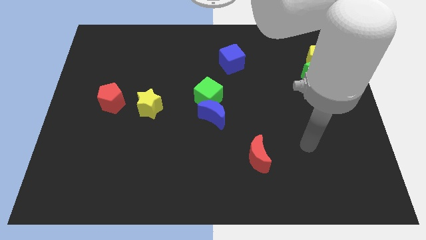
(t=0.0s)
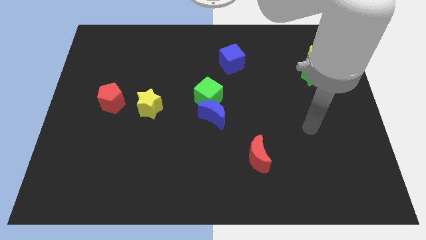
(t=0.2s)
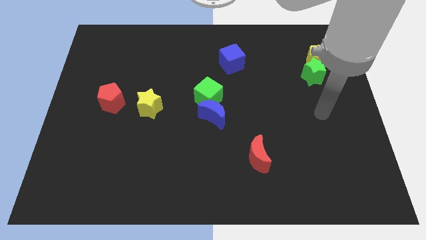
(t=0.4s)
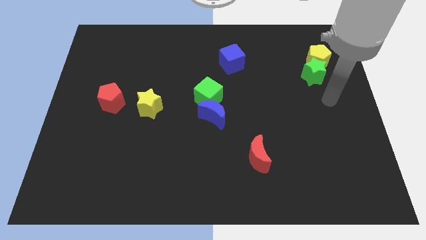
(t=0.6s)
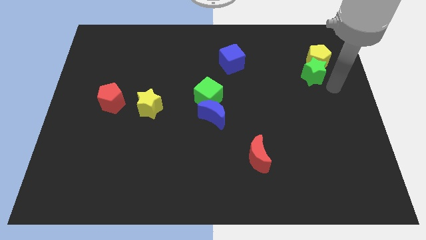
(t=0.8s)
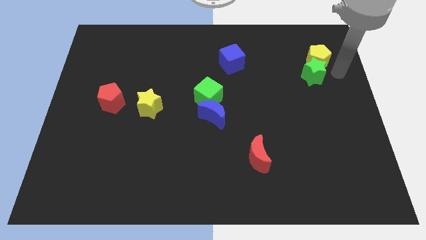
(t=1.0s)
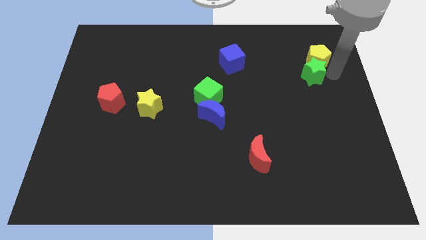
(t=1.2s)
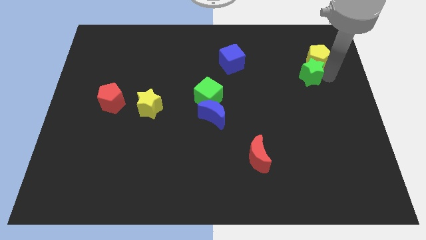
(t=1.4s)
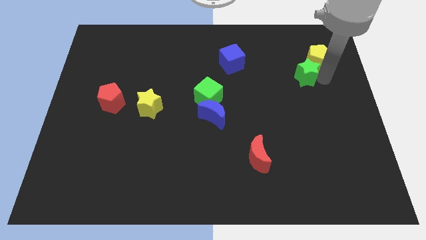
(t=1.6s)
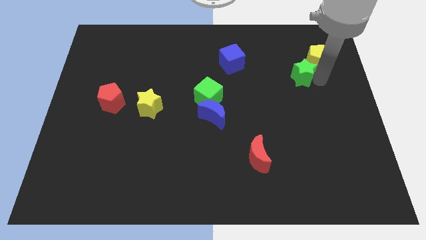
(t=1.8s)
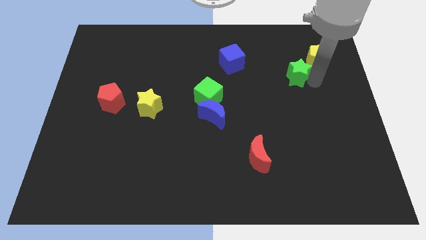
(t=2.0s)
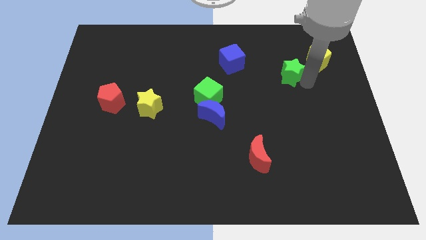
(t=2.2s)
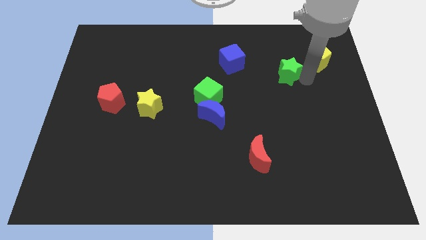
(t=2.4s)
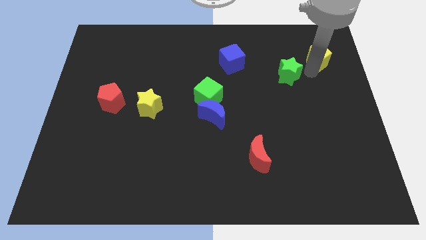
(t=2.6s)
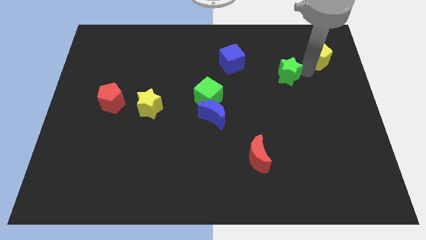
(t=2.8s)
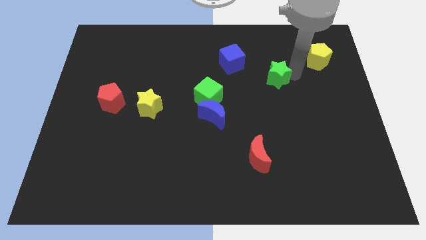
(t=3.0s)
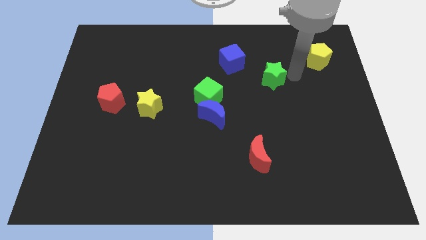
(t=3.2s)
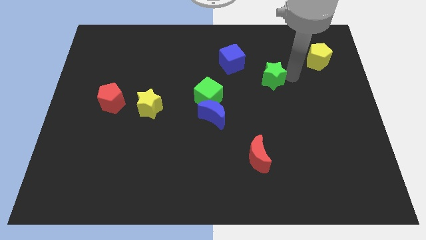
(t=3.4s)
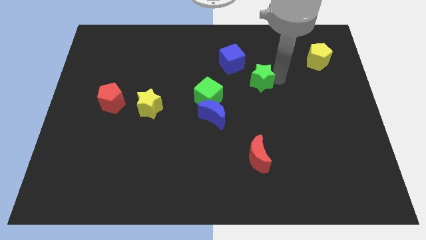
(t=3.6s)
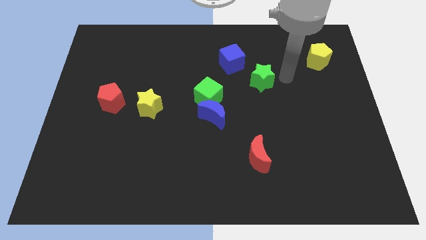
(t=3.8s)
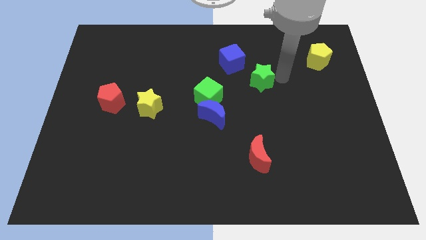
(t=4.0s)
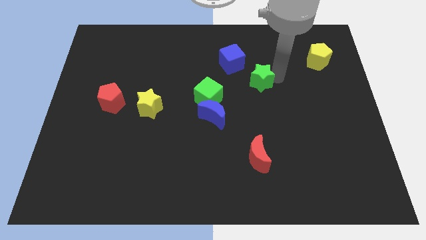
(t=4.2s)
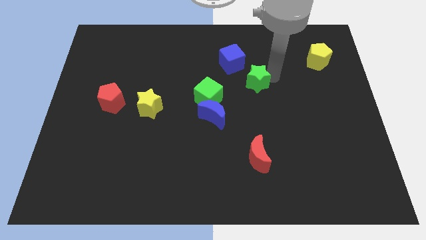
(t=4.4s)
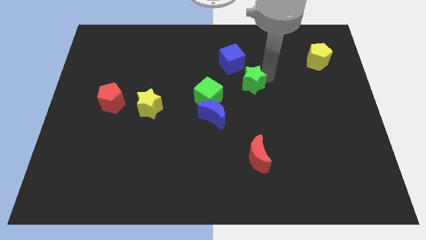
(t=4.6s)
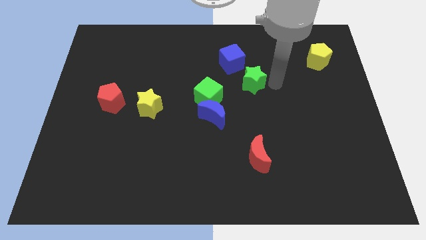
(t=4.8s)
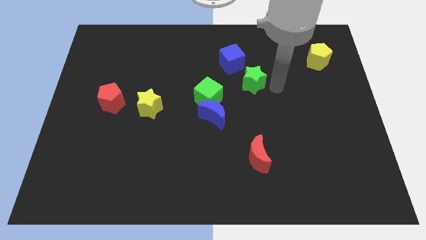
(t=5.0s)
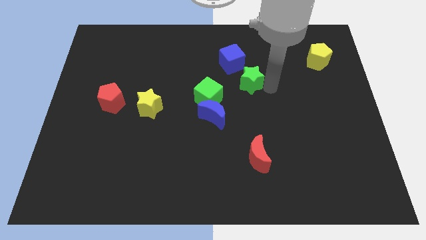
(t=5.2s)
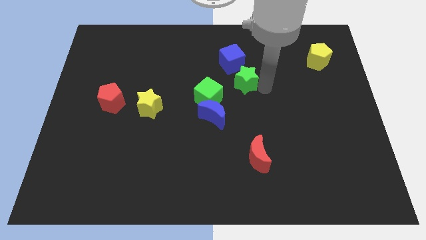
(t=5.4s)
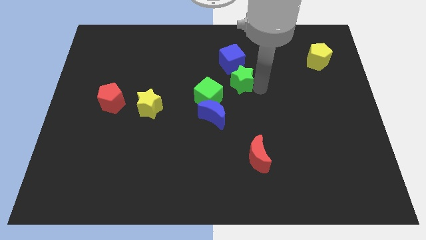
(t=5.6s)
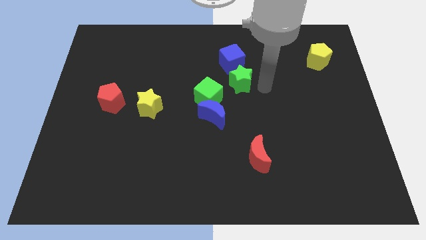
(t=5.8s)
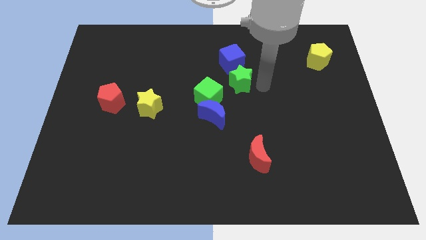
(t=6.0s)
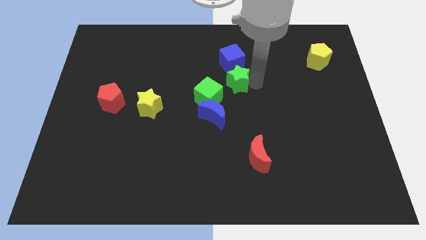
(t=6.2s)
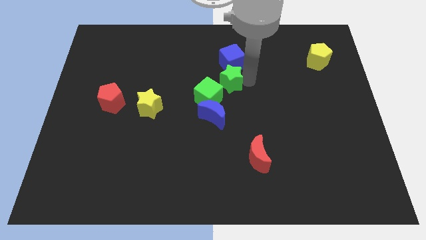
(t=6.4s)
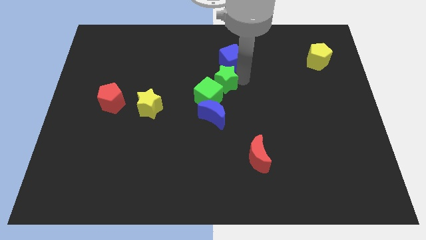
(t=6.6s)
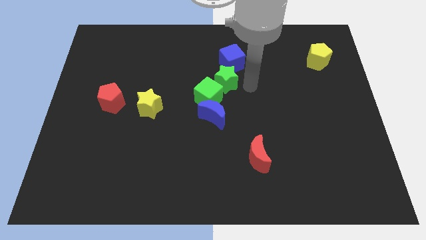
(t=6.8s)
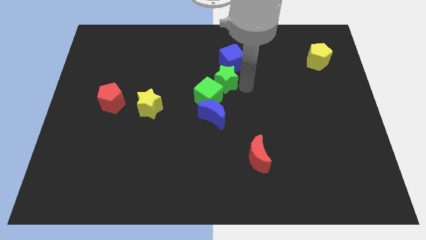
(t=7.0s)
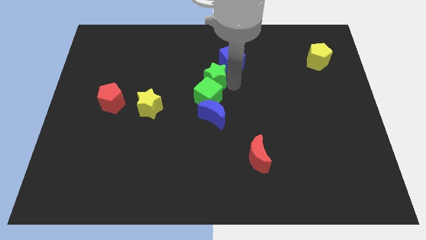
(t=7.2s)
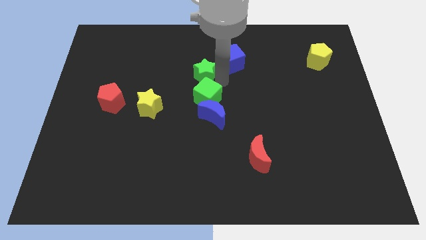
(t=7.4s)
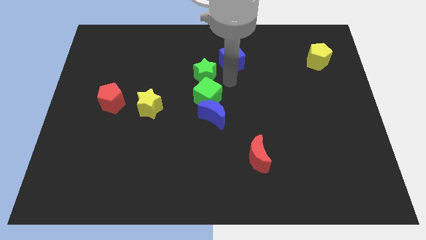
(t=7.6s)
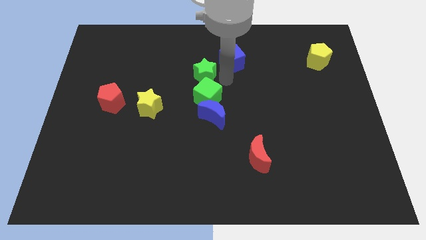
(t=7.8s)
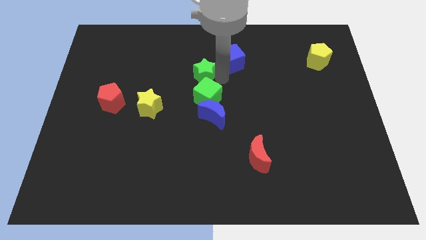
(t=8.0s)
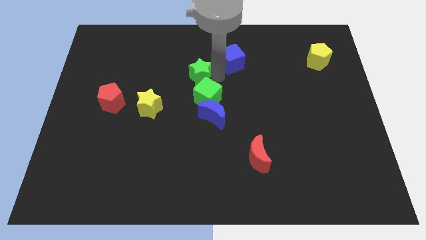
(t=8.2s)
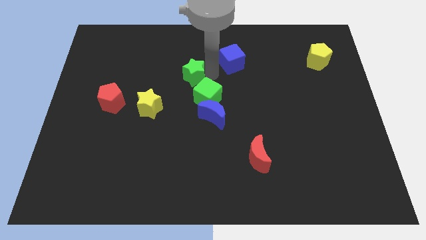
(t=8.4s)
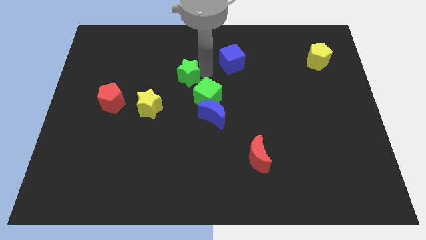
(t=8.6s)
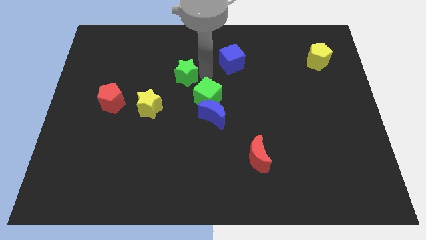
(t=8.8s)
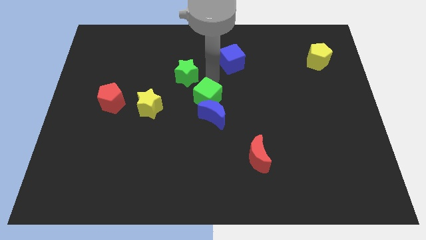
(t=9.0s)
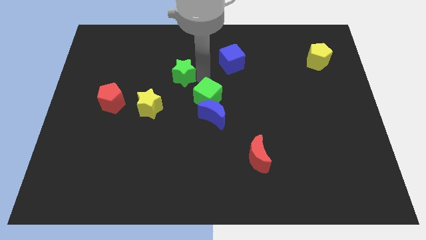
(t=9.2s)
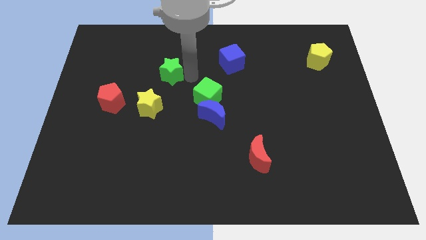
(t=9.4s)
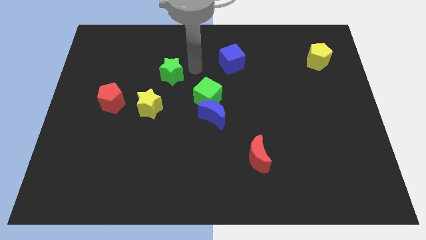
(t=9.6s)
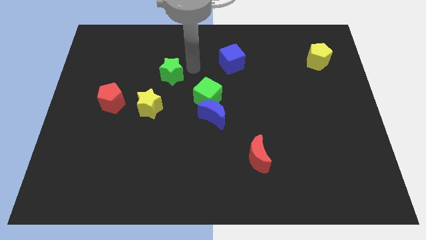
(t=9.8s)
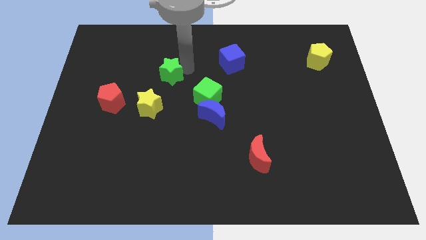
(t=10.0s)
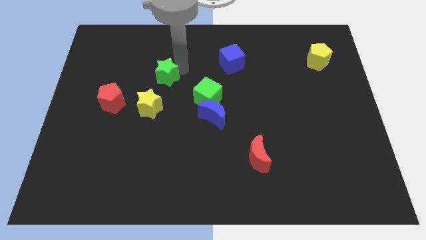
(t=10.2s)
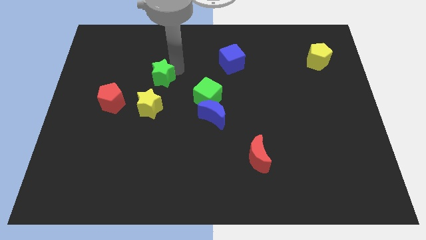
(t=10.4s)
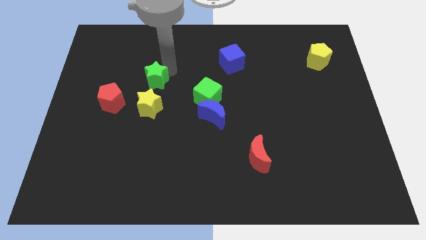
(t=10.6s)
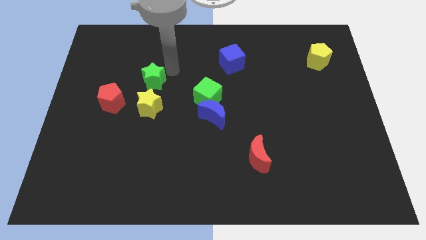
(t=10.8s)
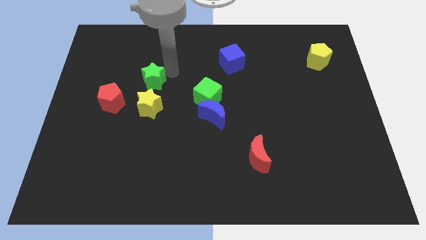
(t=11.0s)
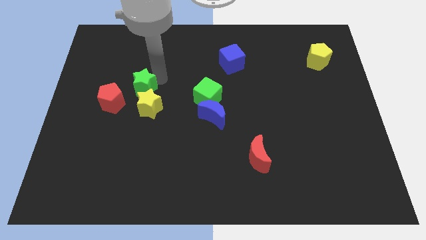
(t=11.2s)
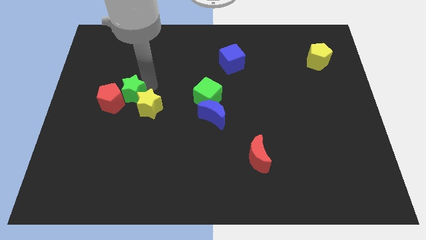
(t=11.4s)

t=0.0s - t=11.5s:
push the green star to the red pentagon

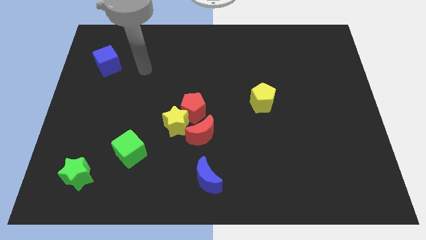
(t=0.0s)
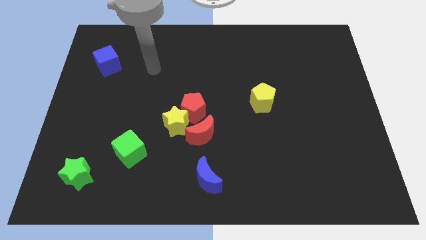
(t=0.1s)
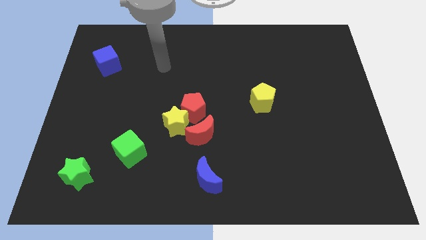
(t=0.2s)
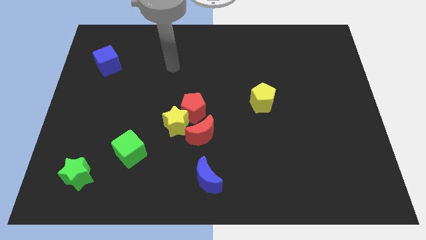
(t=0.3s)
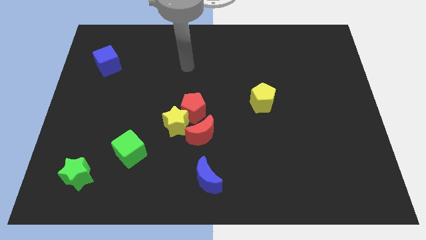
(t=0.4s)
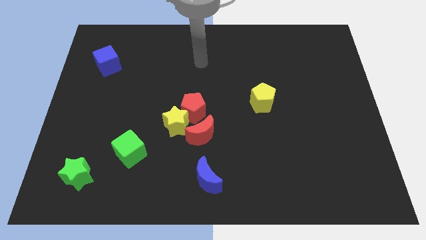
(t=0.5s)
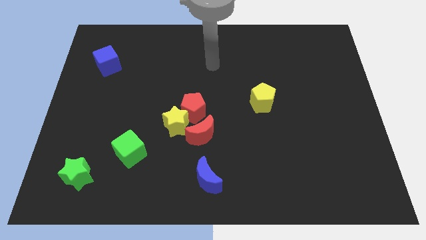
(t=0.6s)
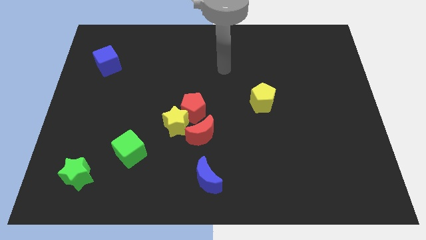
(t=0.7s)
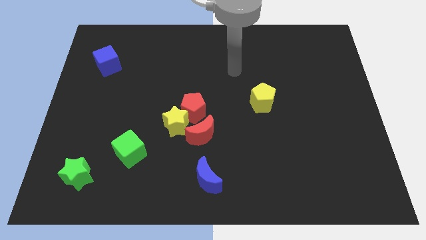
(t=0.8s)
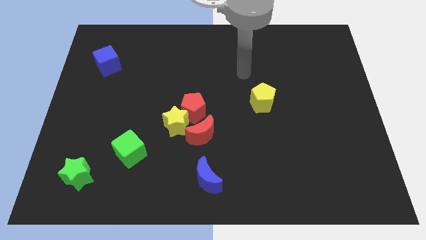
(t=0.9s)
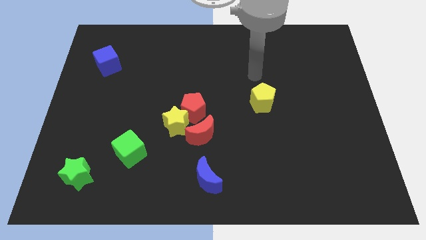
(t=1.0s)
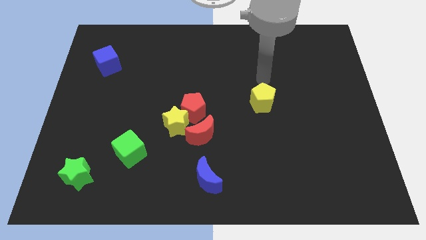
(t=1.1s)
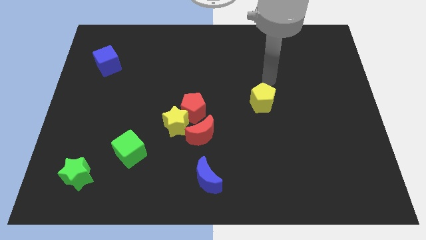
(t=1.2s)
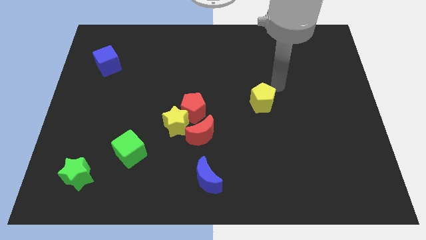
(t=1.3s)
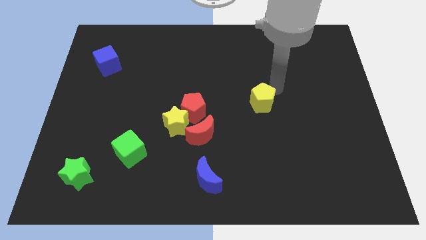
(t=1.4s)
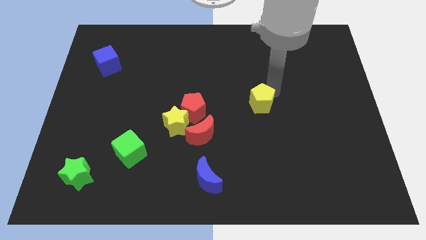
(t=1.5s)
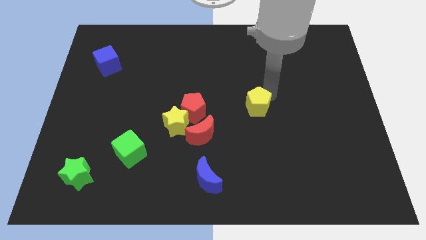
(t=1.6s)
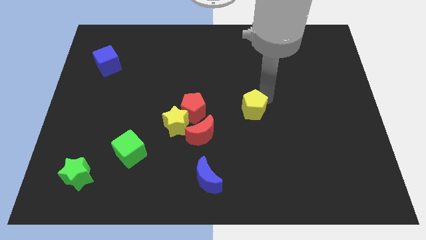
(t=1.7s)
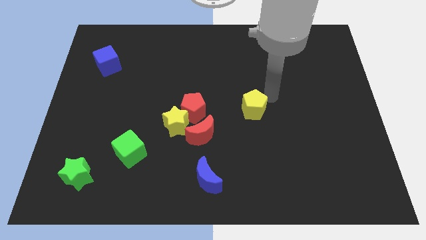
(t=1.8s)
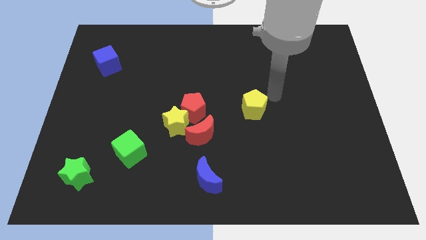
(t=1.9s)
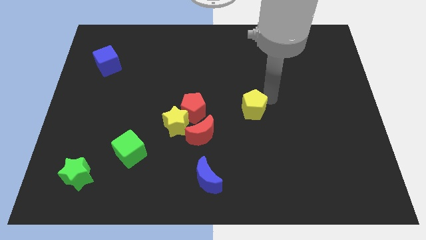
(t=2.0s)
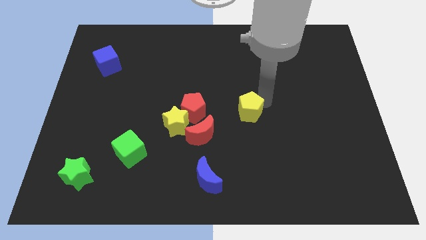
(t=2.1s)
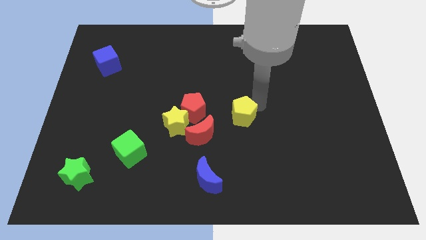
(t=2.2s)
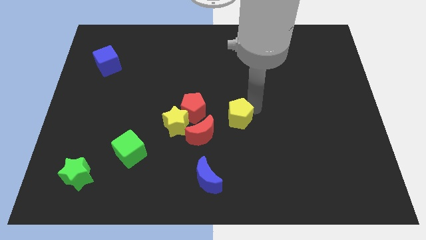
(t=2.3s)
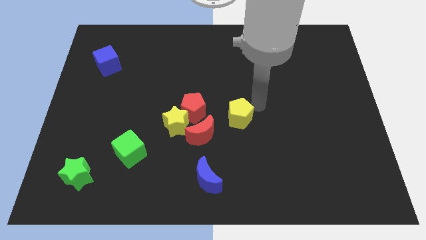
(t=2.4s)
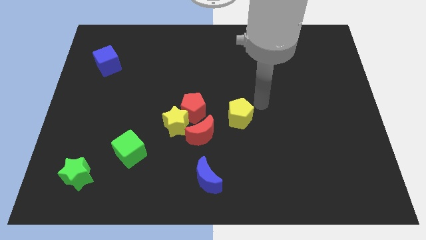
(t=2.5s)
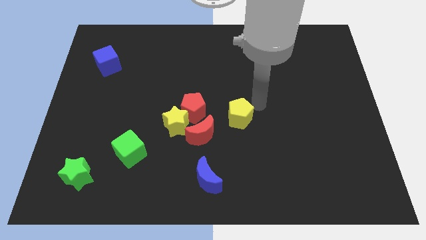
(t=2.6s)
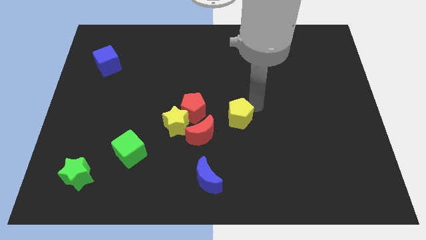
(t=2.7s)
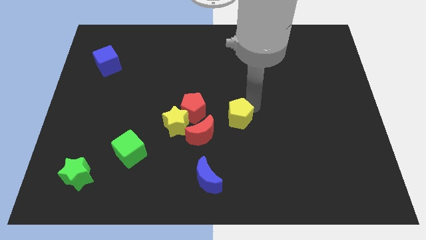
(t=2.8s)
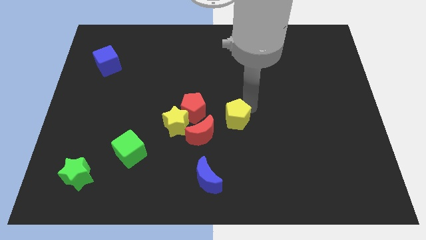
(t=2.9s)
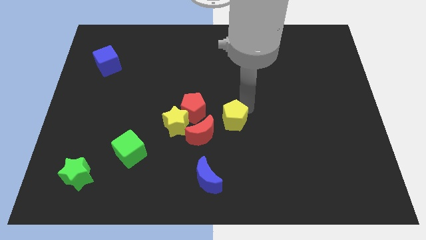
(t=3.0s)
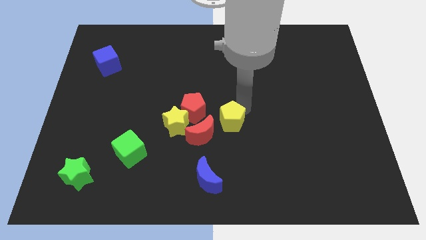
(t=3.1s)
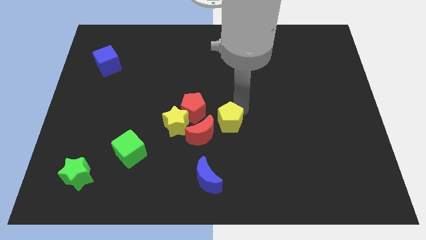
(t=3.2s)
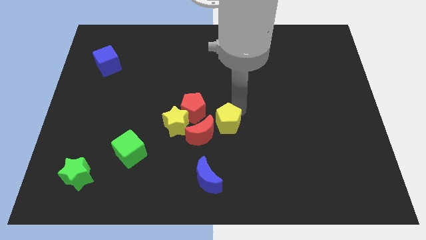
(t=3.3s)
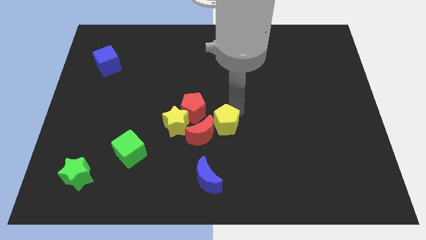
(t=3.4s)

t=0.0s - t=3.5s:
slide the yellow pentagon towards the red moon
